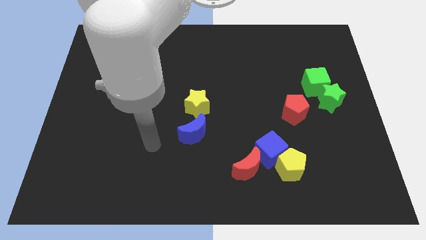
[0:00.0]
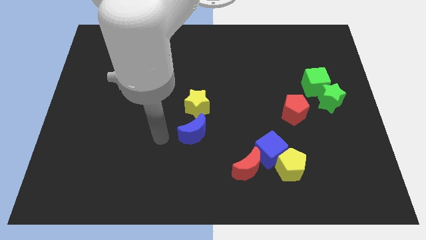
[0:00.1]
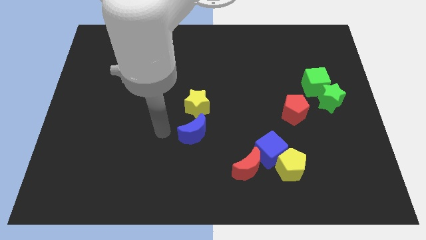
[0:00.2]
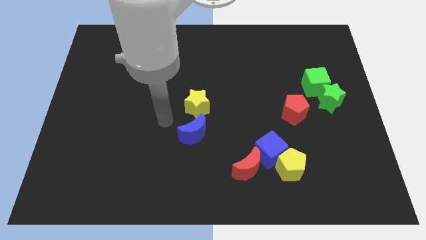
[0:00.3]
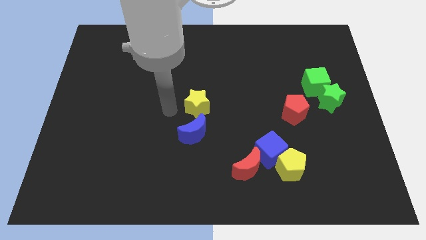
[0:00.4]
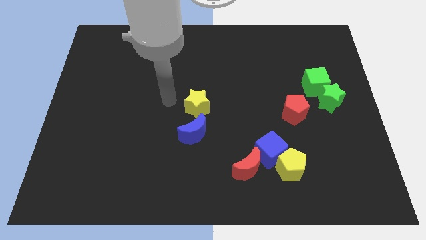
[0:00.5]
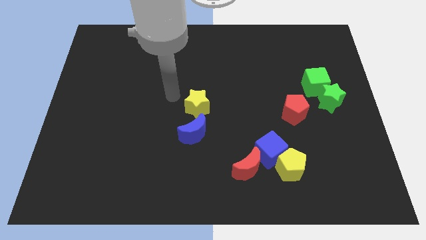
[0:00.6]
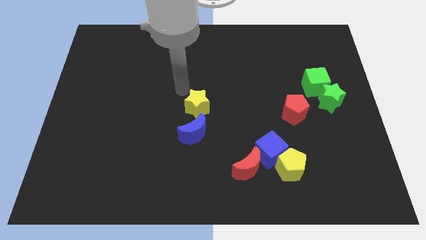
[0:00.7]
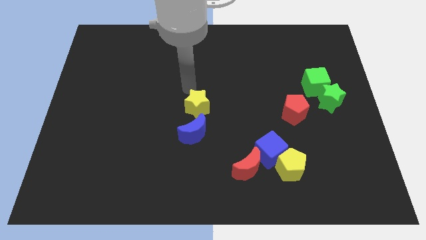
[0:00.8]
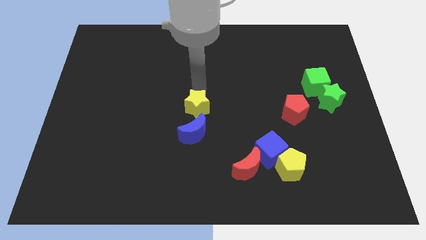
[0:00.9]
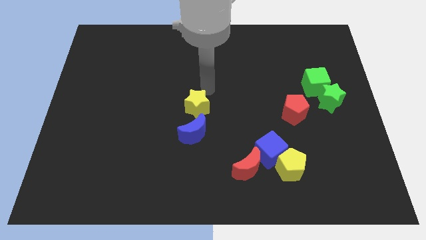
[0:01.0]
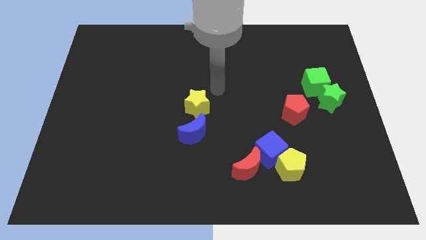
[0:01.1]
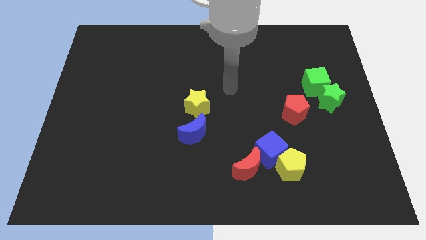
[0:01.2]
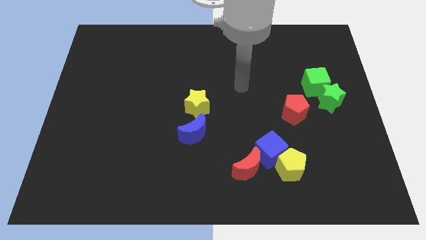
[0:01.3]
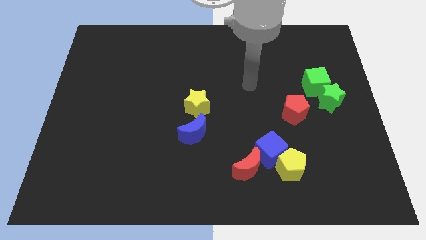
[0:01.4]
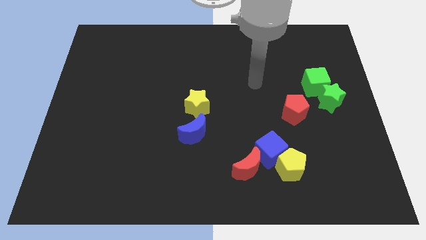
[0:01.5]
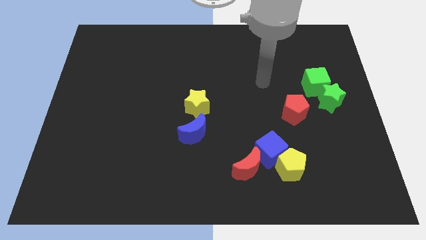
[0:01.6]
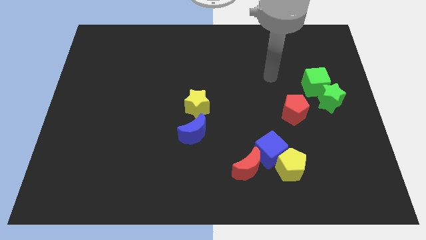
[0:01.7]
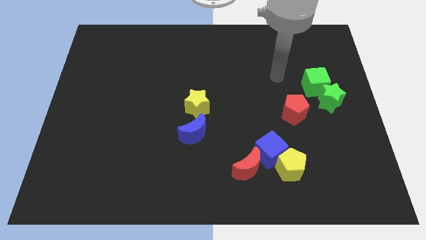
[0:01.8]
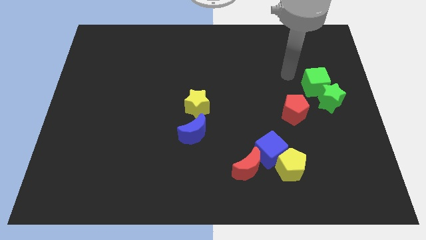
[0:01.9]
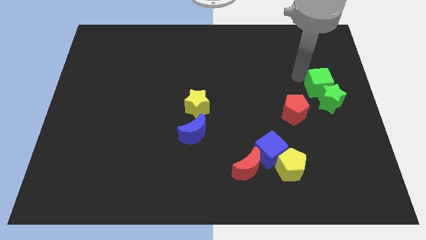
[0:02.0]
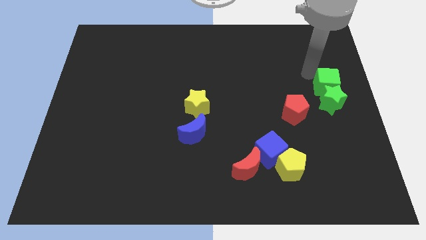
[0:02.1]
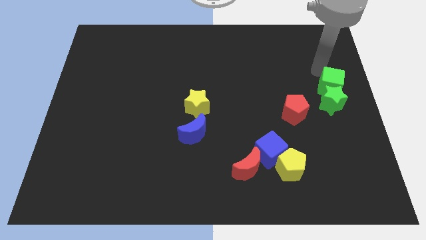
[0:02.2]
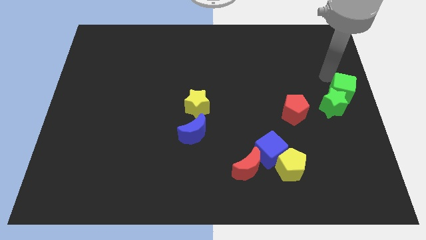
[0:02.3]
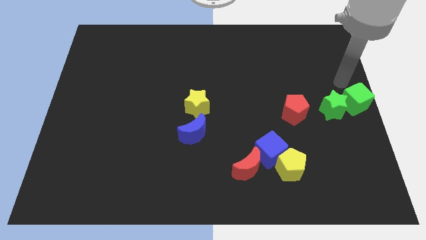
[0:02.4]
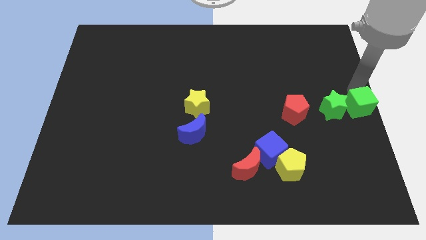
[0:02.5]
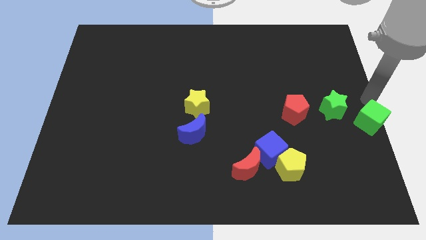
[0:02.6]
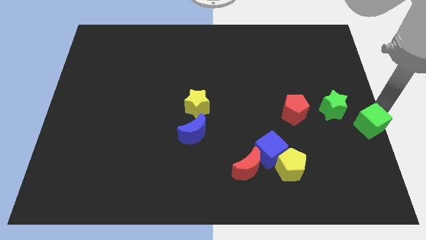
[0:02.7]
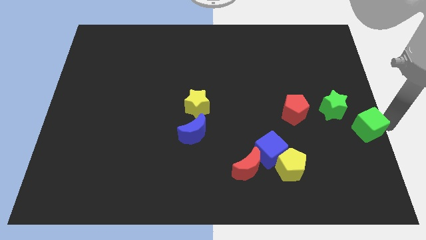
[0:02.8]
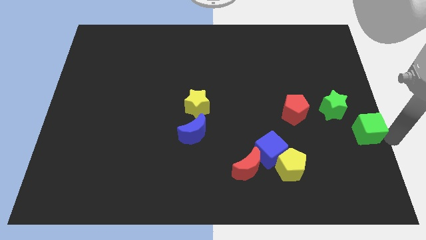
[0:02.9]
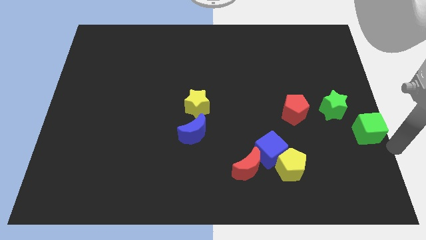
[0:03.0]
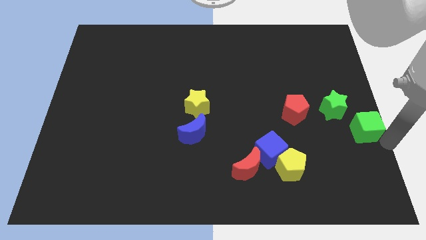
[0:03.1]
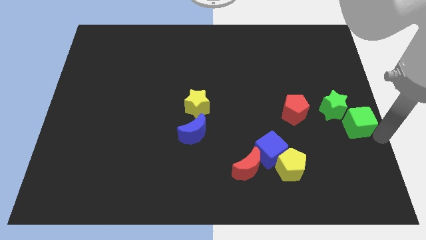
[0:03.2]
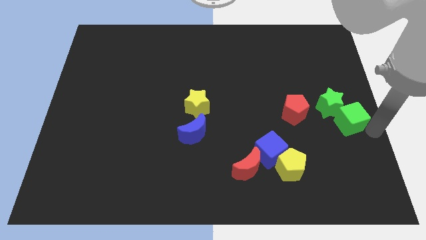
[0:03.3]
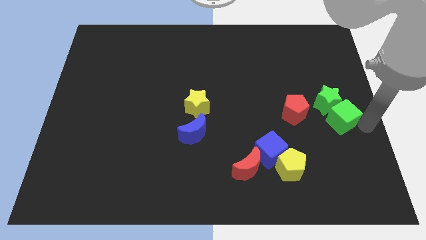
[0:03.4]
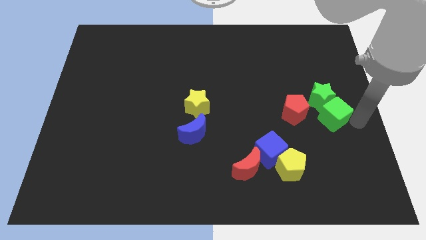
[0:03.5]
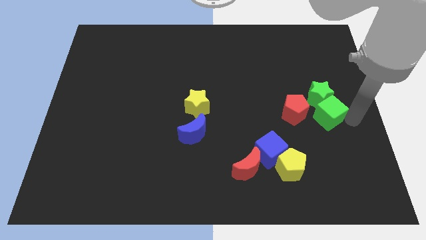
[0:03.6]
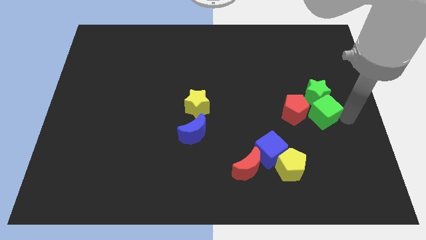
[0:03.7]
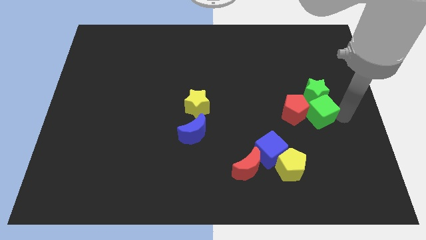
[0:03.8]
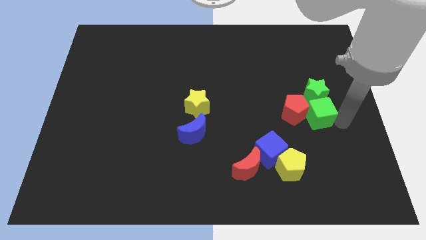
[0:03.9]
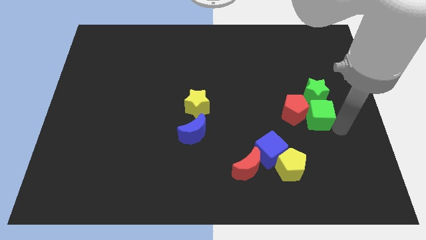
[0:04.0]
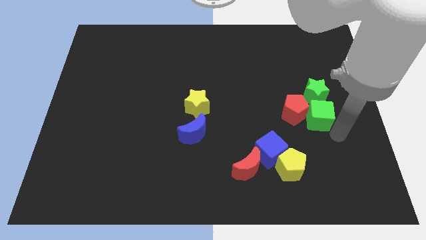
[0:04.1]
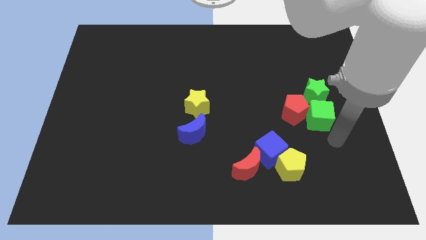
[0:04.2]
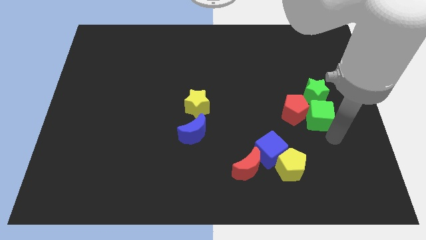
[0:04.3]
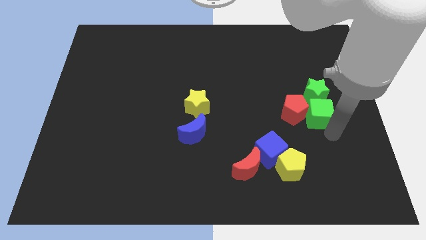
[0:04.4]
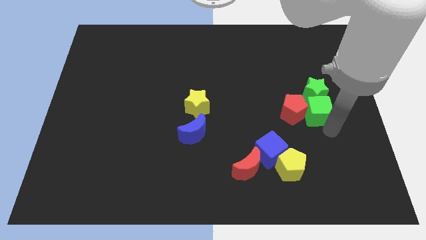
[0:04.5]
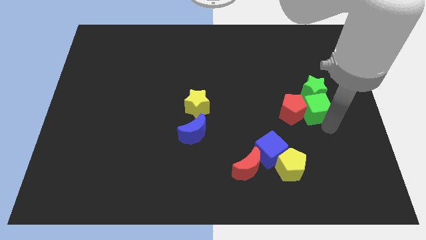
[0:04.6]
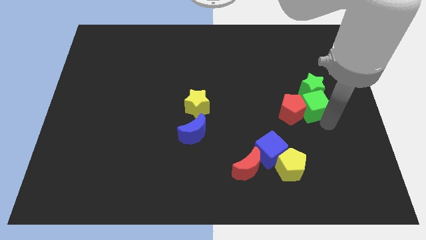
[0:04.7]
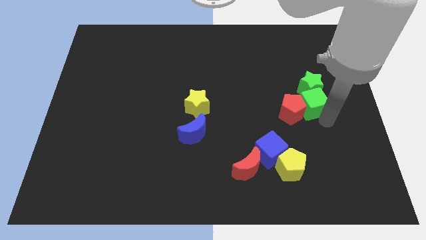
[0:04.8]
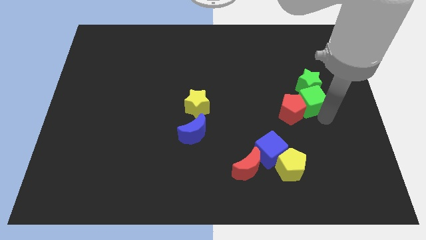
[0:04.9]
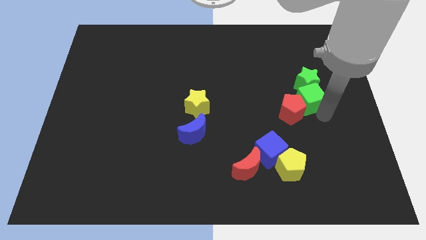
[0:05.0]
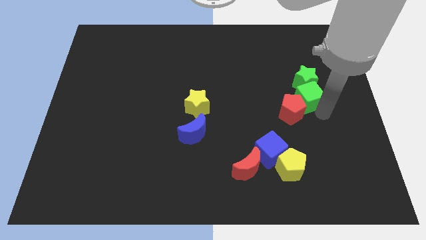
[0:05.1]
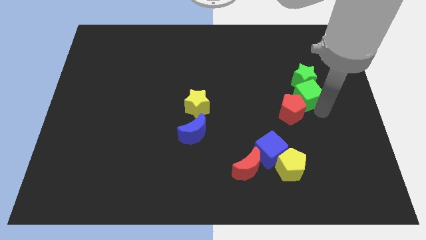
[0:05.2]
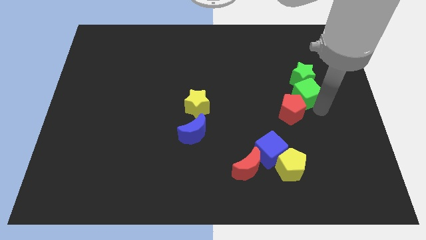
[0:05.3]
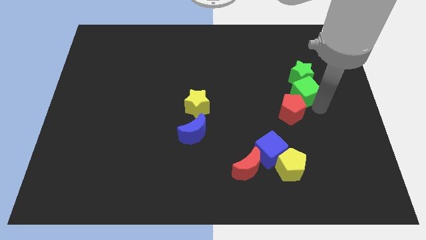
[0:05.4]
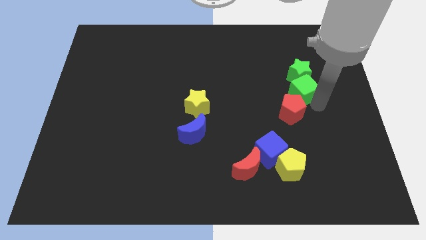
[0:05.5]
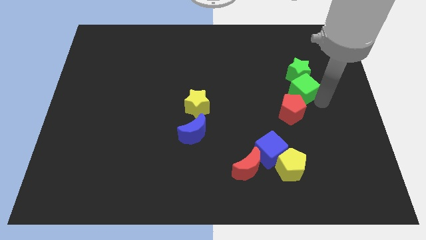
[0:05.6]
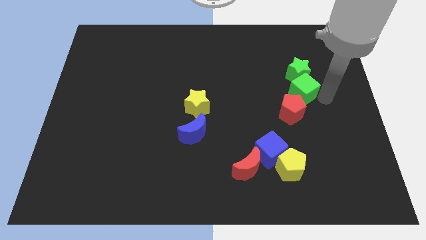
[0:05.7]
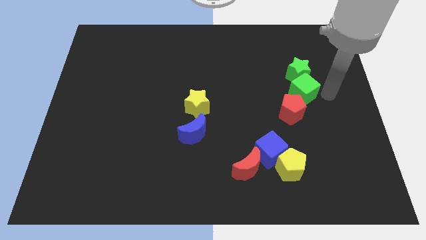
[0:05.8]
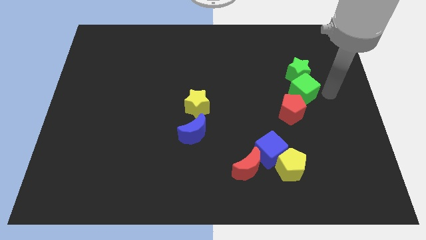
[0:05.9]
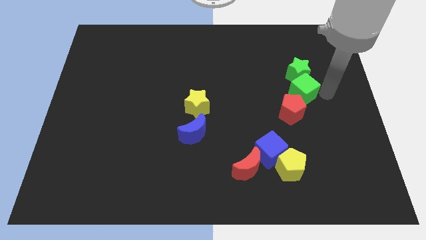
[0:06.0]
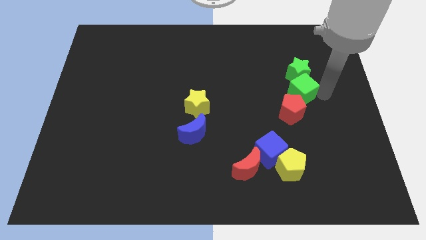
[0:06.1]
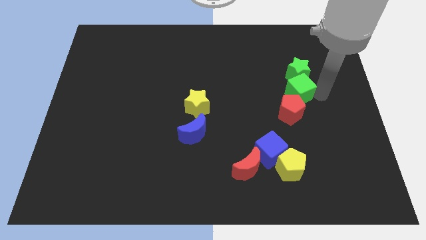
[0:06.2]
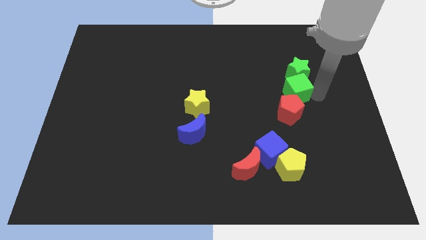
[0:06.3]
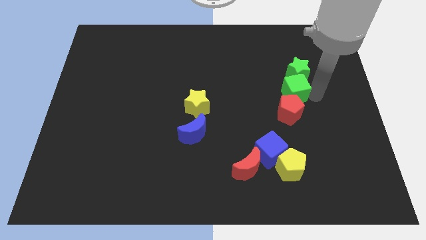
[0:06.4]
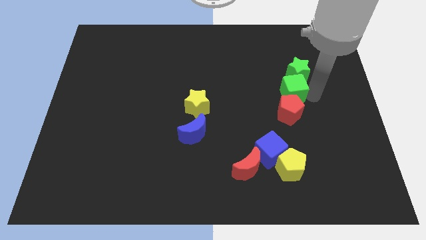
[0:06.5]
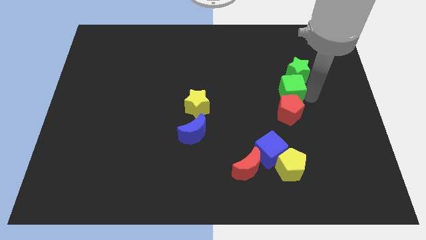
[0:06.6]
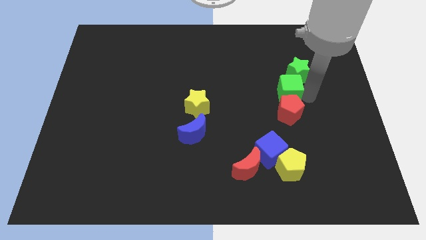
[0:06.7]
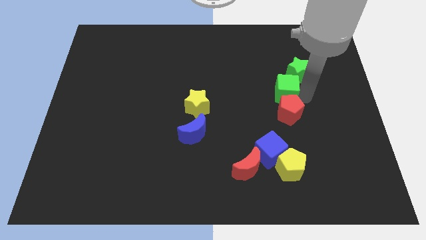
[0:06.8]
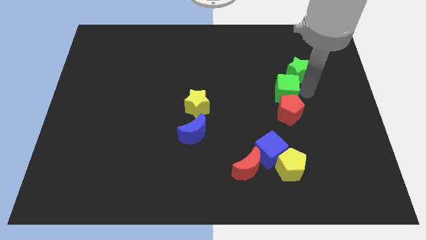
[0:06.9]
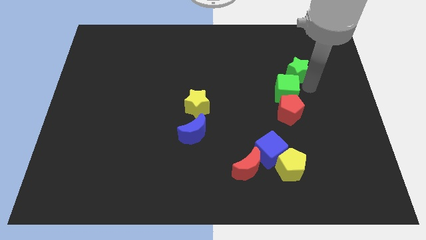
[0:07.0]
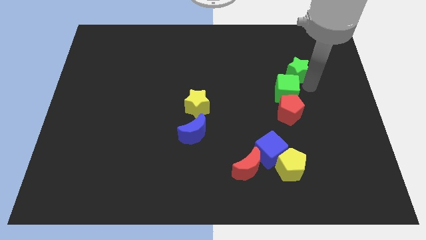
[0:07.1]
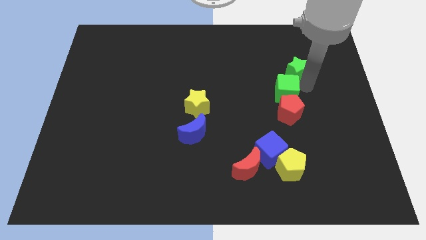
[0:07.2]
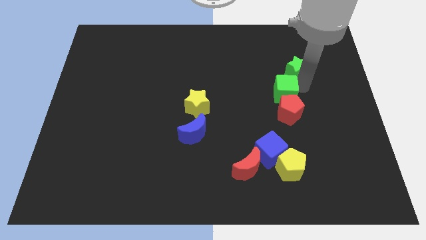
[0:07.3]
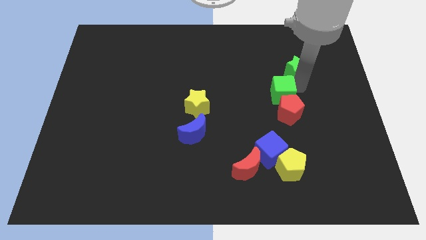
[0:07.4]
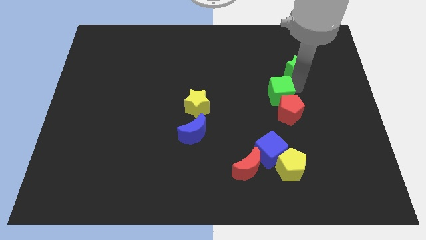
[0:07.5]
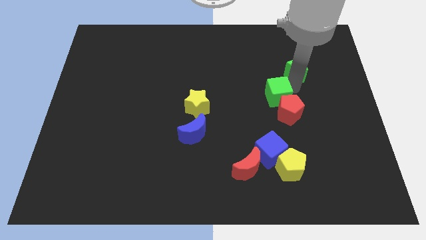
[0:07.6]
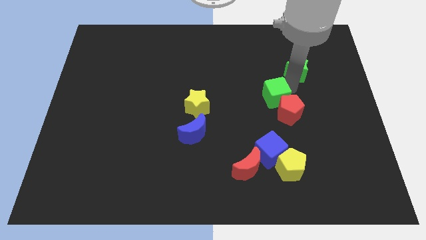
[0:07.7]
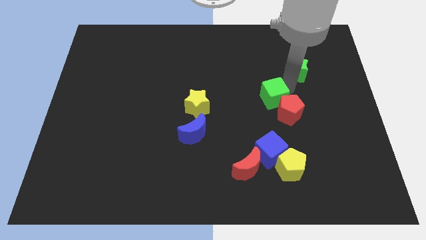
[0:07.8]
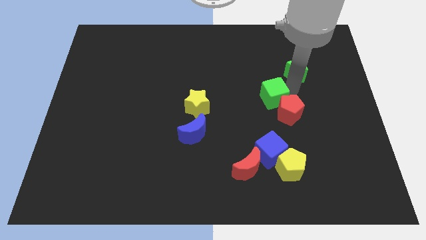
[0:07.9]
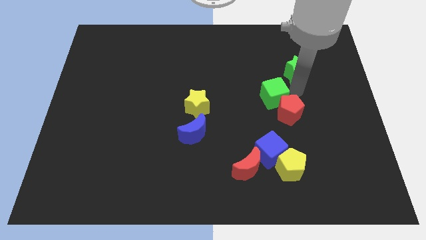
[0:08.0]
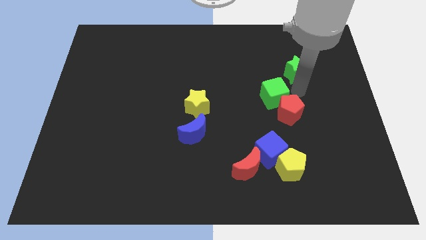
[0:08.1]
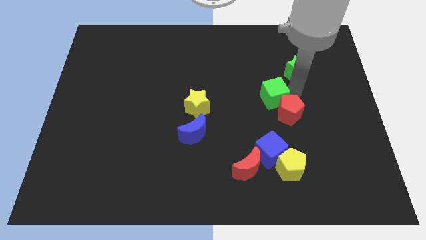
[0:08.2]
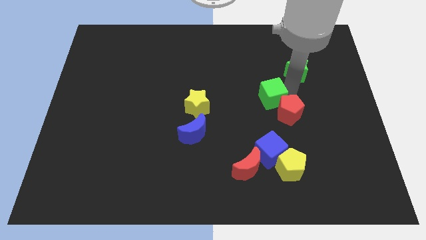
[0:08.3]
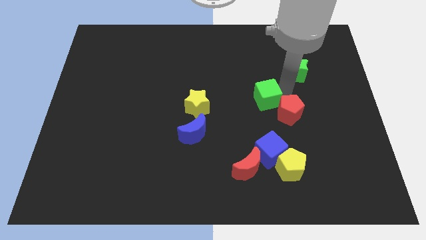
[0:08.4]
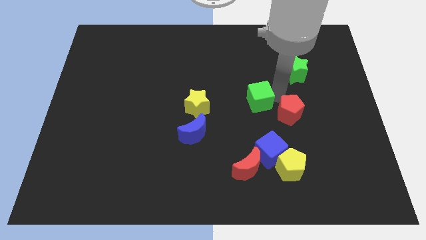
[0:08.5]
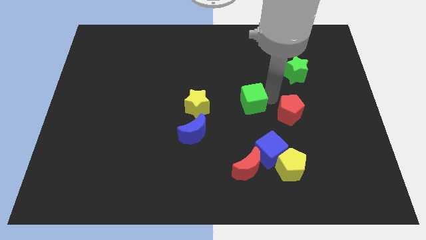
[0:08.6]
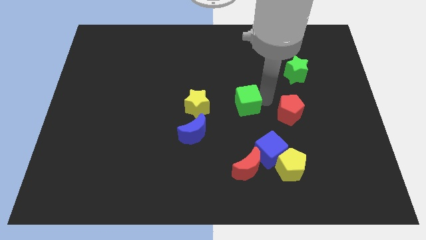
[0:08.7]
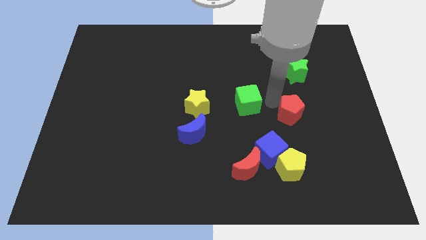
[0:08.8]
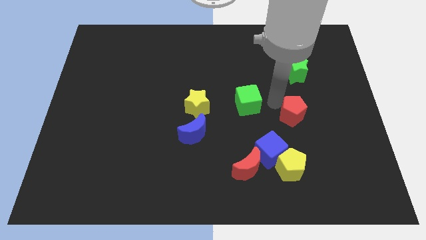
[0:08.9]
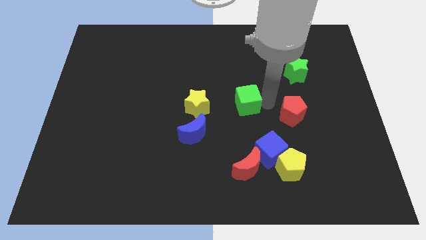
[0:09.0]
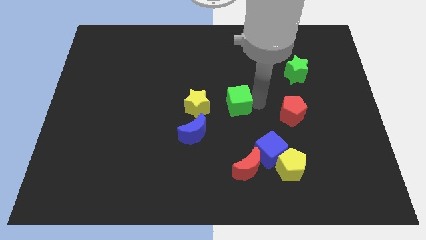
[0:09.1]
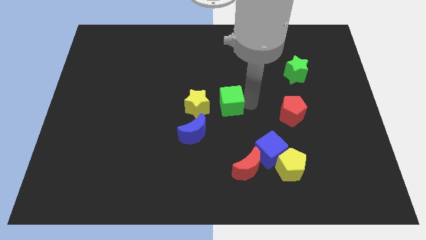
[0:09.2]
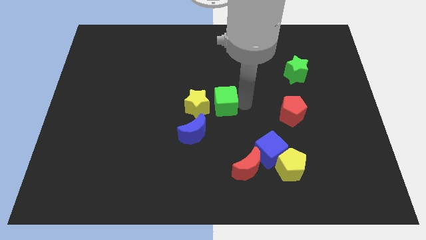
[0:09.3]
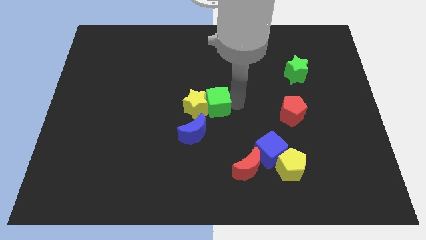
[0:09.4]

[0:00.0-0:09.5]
put the green cube towards the yellow star
